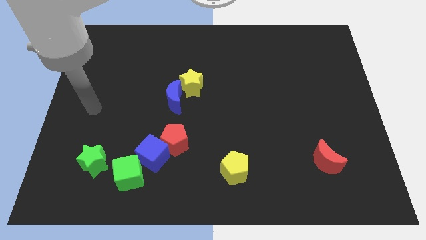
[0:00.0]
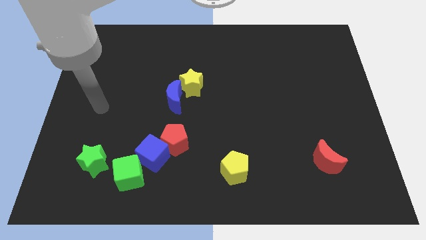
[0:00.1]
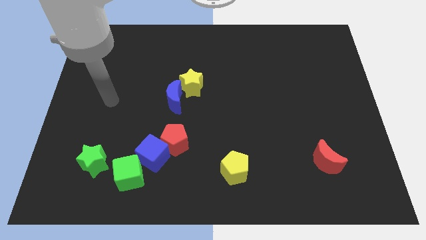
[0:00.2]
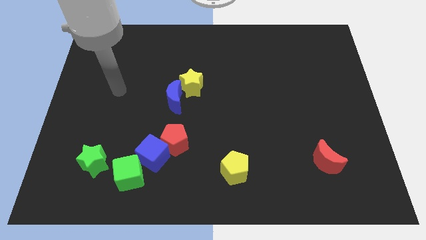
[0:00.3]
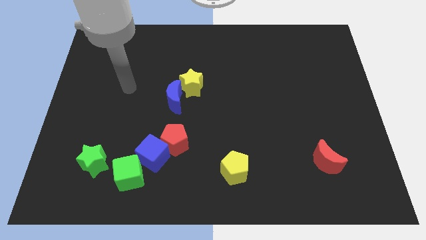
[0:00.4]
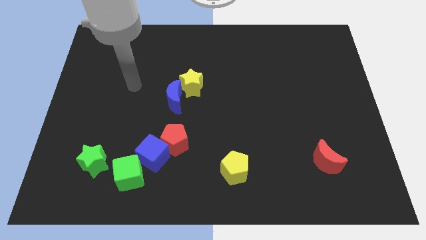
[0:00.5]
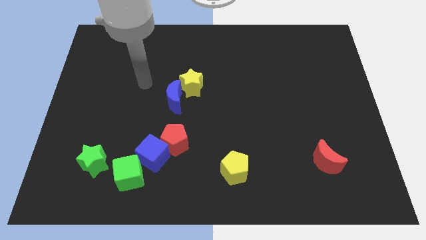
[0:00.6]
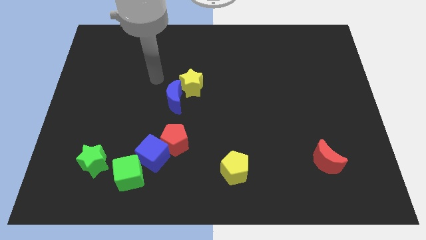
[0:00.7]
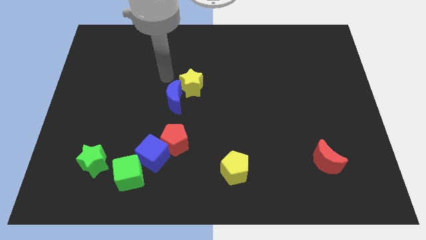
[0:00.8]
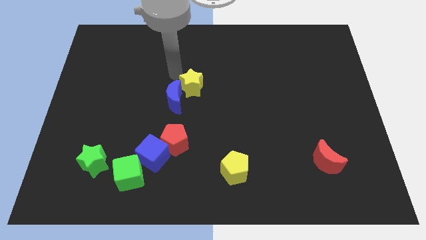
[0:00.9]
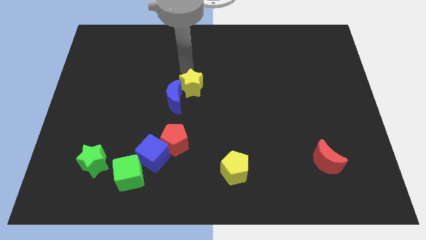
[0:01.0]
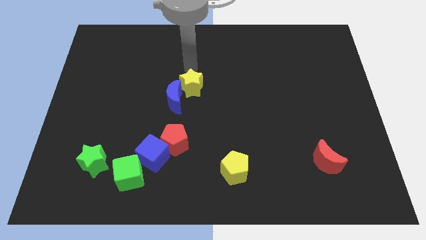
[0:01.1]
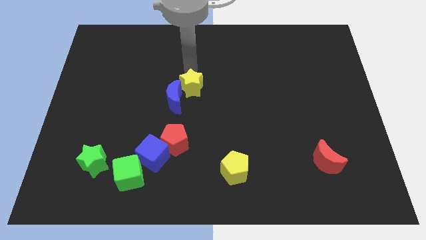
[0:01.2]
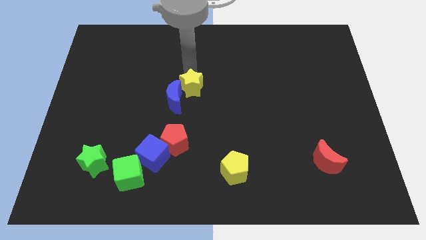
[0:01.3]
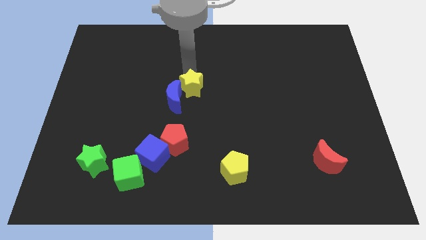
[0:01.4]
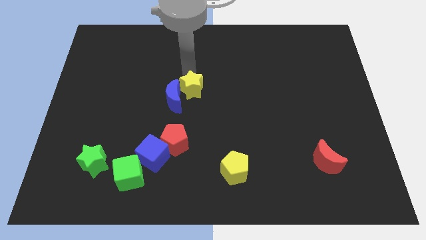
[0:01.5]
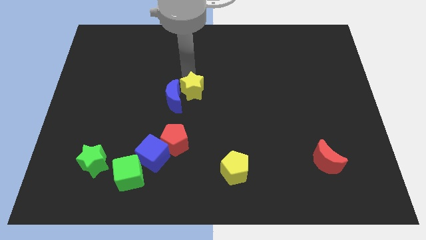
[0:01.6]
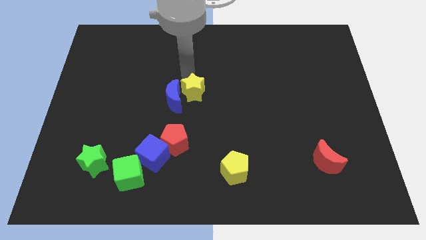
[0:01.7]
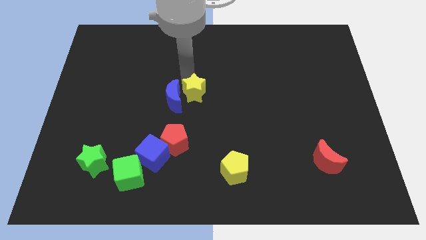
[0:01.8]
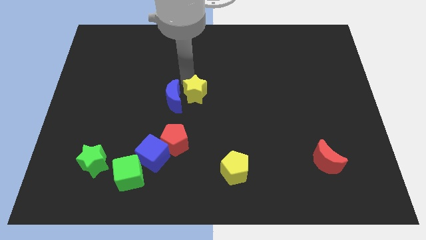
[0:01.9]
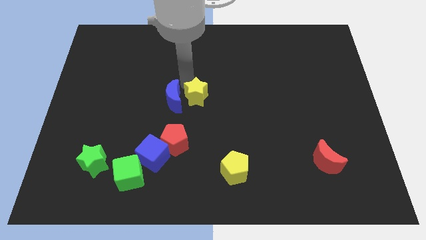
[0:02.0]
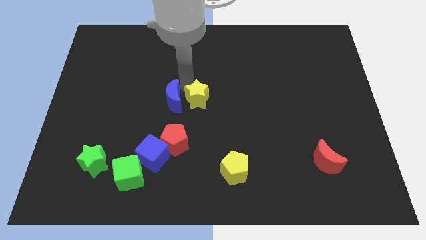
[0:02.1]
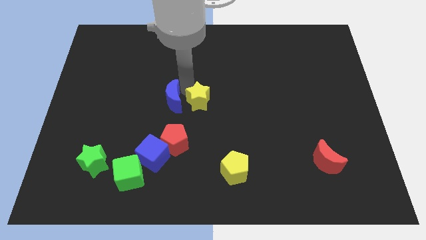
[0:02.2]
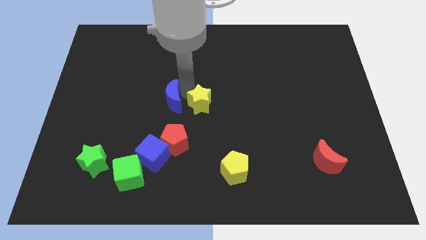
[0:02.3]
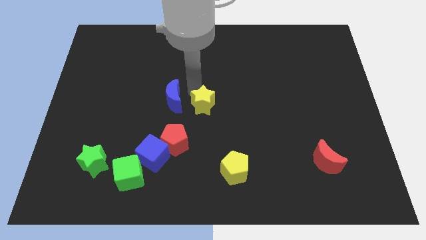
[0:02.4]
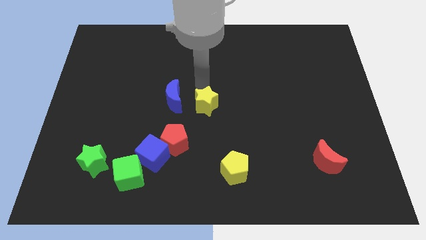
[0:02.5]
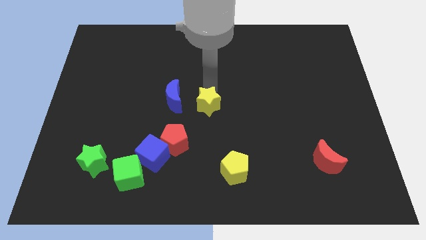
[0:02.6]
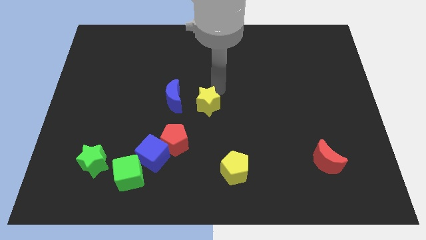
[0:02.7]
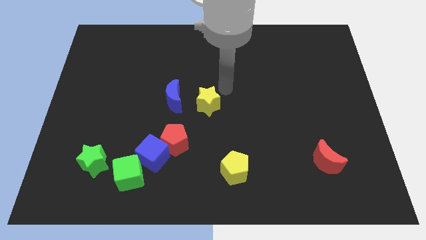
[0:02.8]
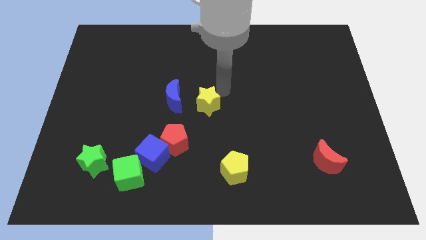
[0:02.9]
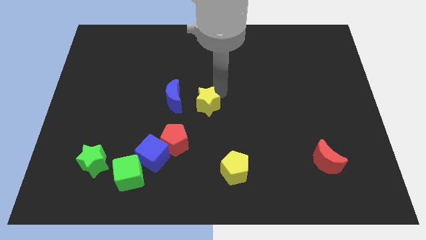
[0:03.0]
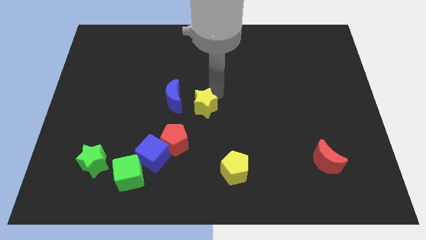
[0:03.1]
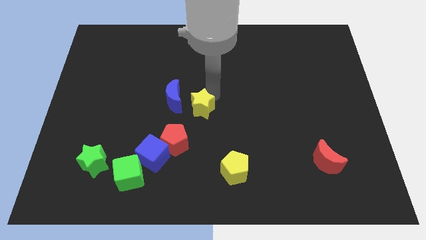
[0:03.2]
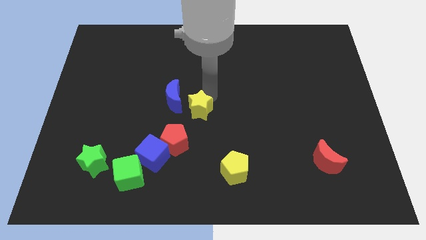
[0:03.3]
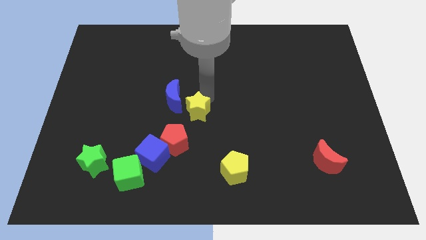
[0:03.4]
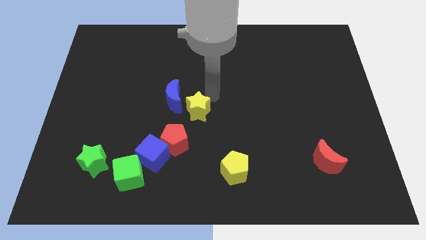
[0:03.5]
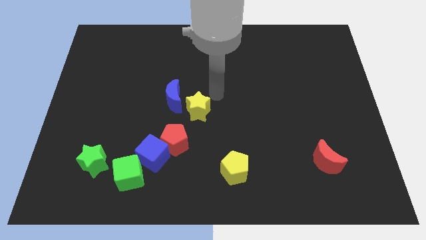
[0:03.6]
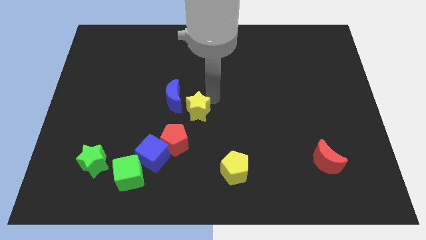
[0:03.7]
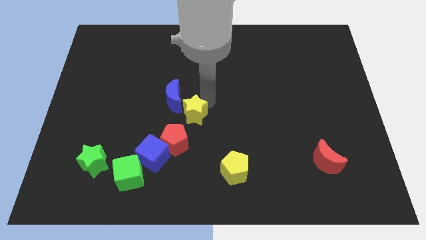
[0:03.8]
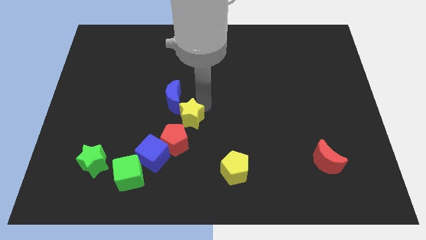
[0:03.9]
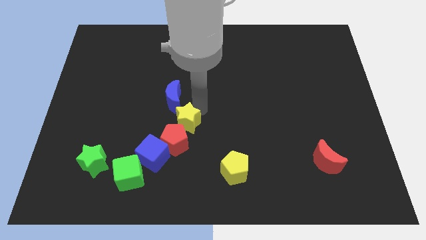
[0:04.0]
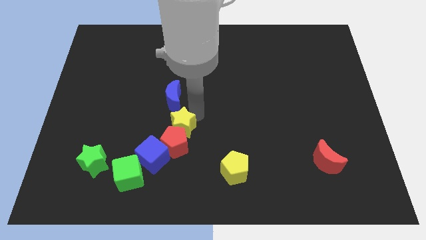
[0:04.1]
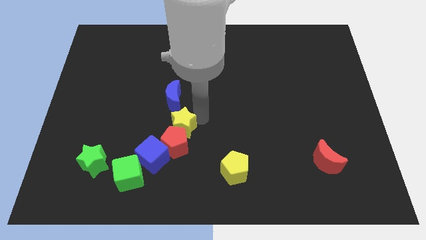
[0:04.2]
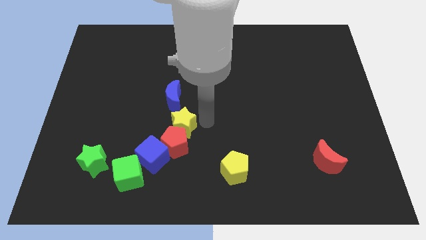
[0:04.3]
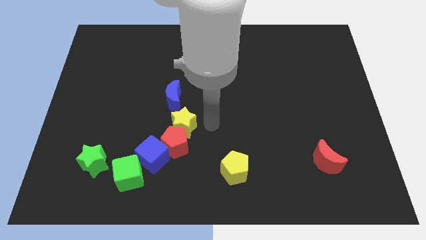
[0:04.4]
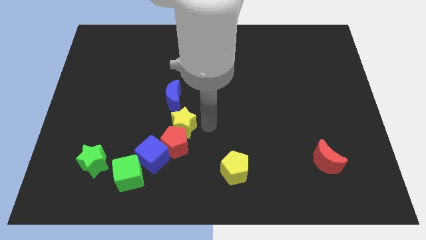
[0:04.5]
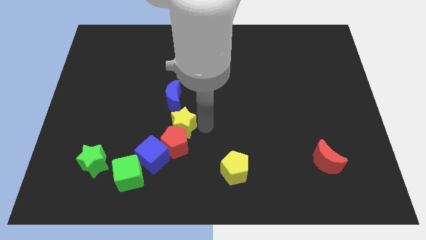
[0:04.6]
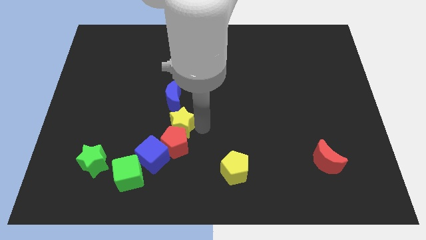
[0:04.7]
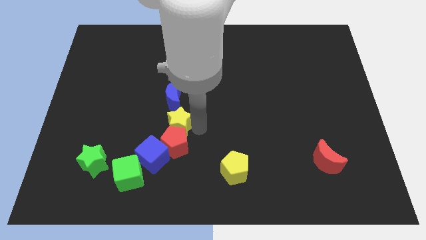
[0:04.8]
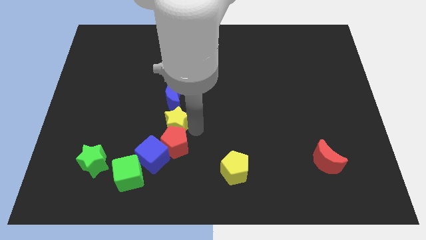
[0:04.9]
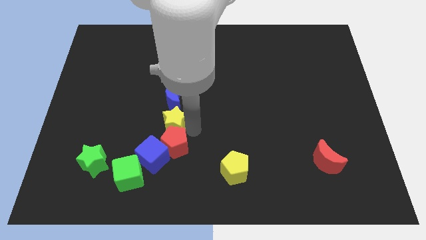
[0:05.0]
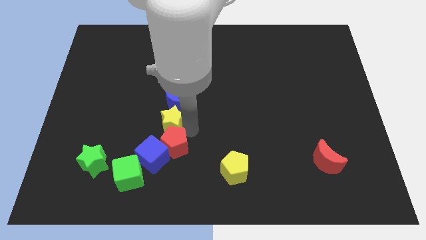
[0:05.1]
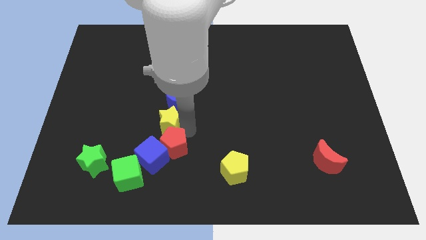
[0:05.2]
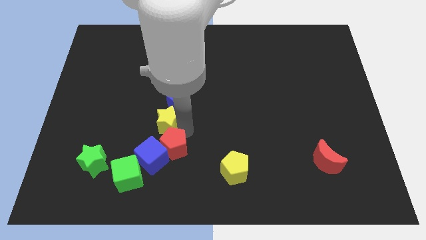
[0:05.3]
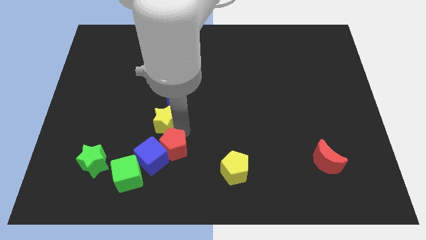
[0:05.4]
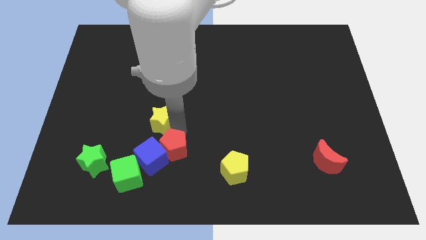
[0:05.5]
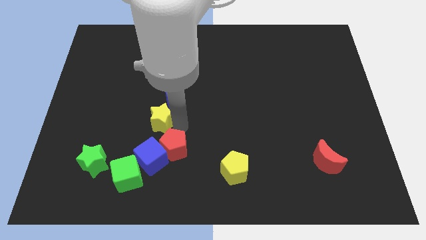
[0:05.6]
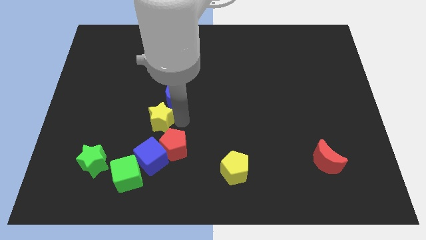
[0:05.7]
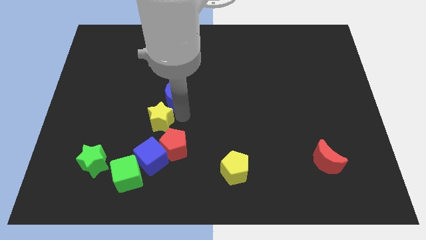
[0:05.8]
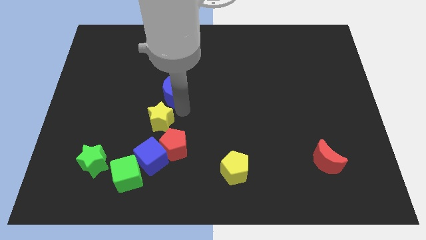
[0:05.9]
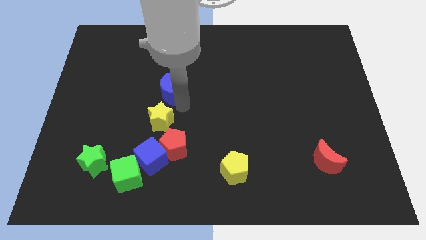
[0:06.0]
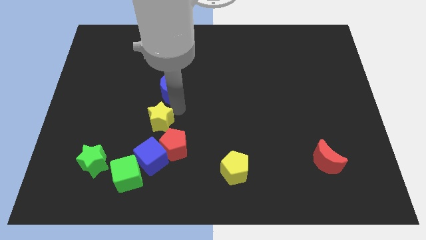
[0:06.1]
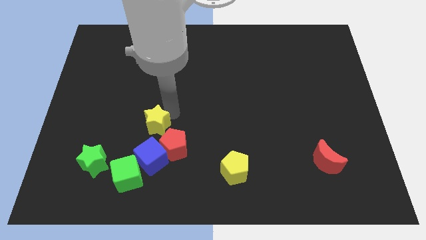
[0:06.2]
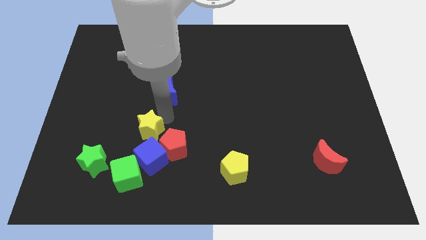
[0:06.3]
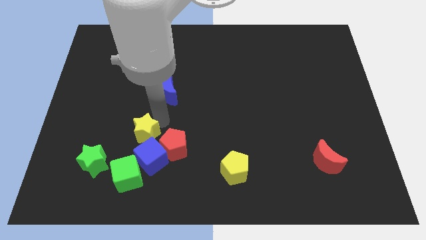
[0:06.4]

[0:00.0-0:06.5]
slide the yellow star to the top right of the green star
